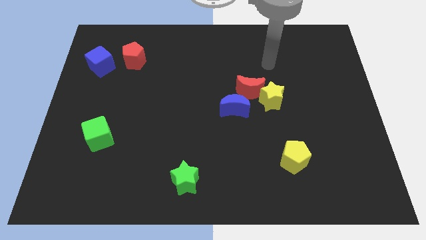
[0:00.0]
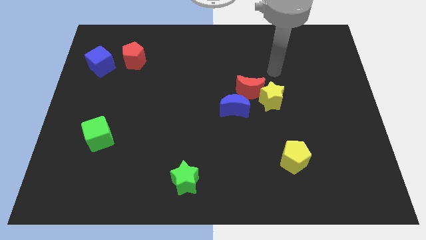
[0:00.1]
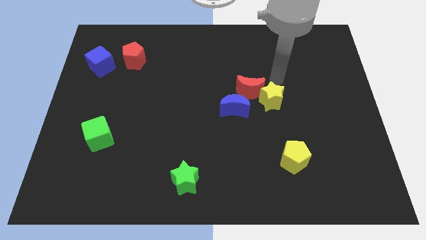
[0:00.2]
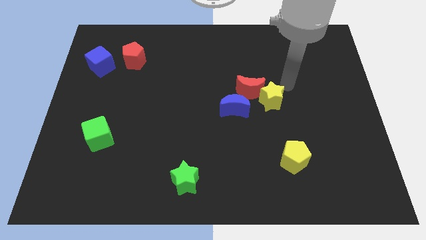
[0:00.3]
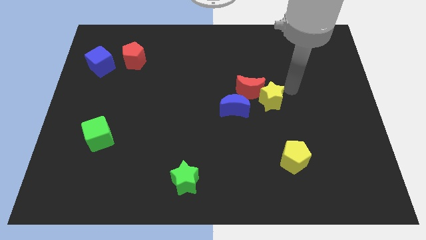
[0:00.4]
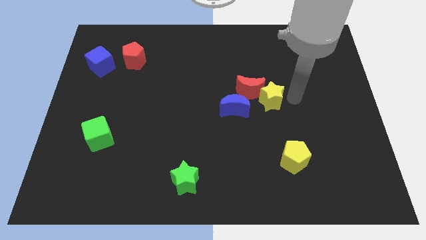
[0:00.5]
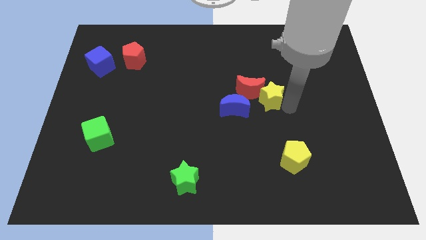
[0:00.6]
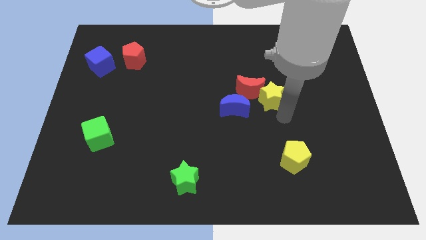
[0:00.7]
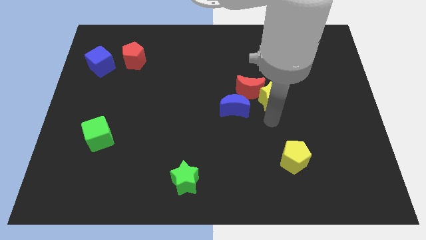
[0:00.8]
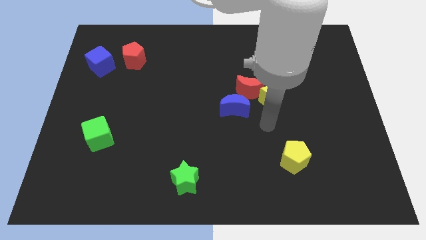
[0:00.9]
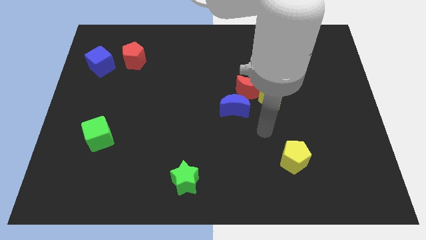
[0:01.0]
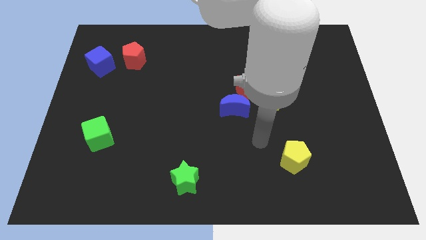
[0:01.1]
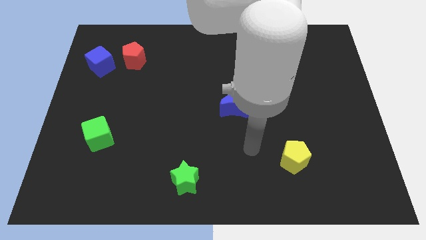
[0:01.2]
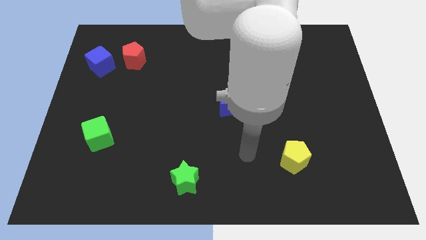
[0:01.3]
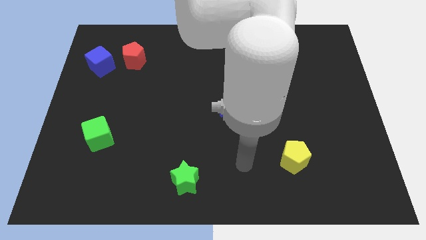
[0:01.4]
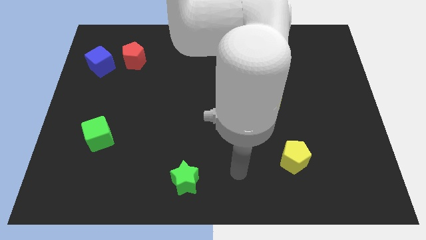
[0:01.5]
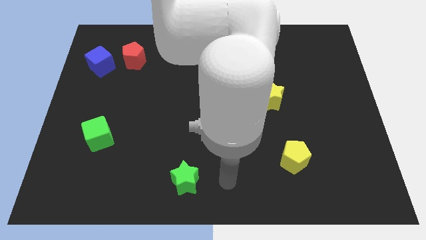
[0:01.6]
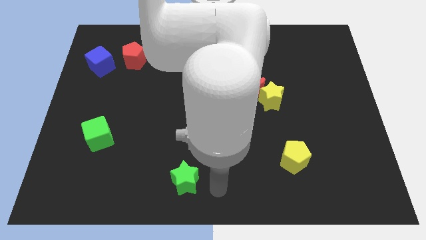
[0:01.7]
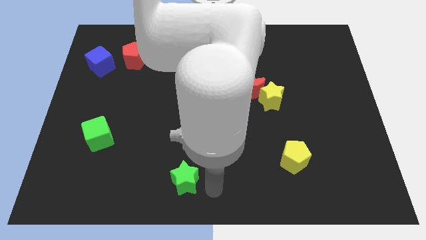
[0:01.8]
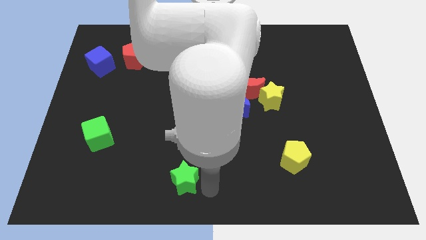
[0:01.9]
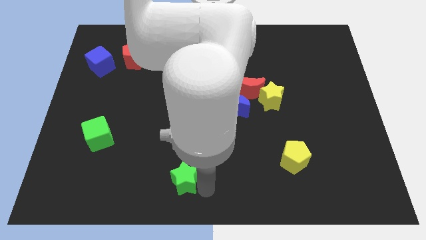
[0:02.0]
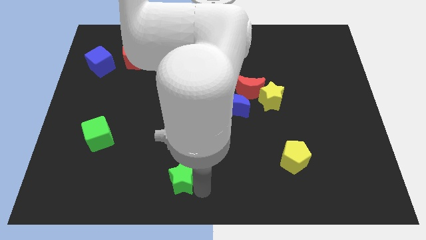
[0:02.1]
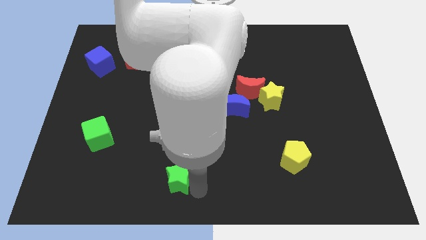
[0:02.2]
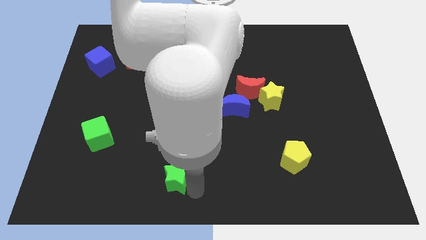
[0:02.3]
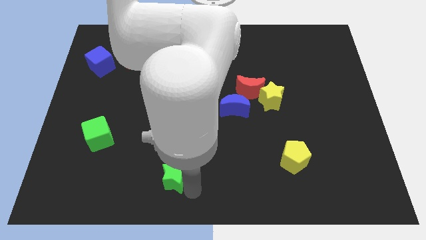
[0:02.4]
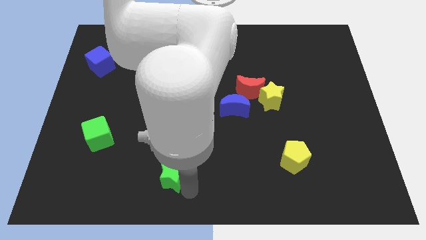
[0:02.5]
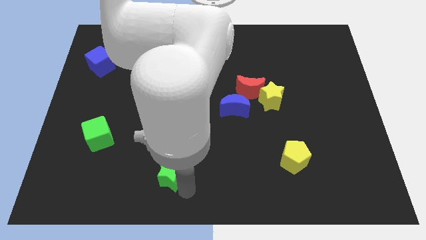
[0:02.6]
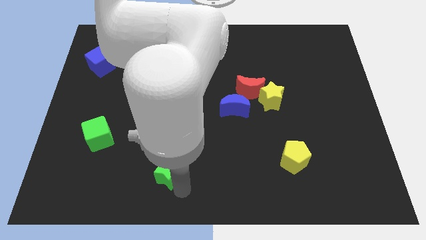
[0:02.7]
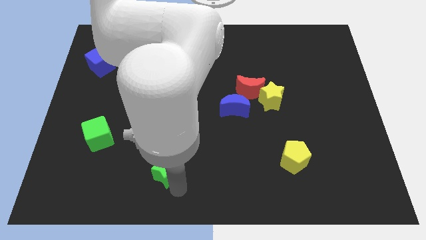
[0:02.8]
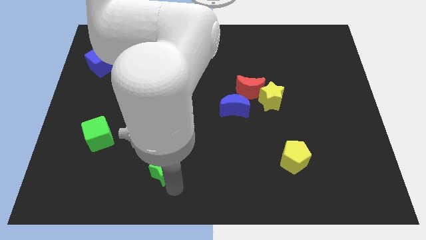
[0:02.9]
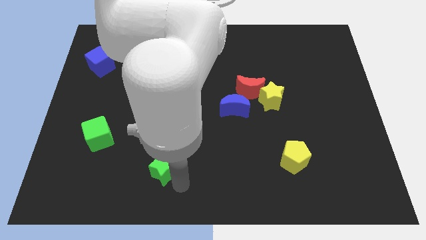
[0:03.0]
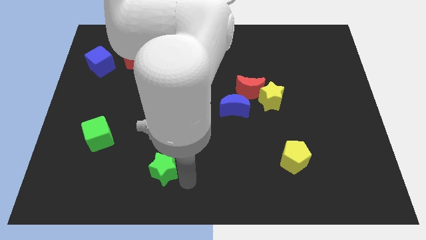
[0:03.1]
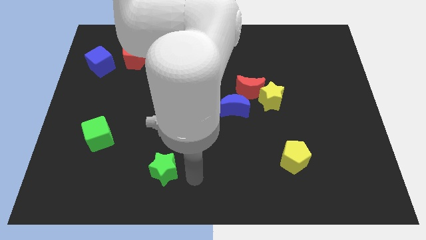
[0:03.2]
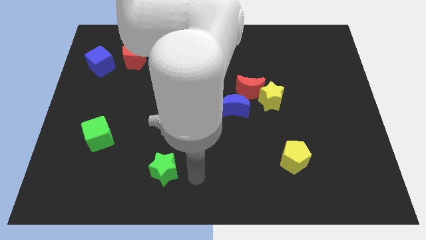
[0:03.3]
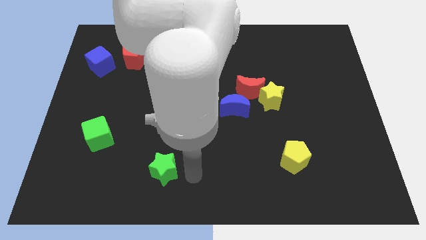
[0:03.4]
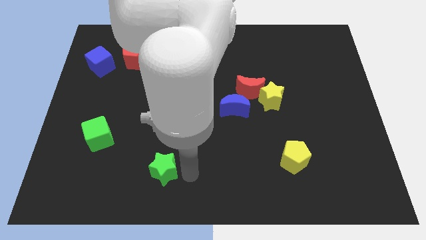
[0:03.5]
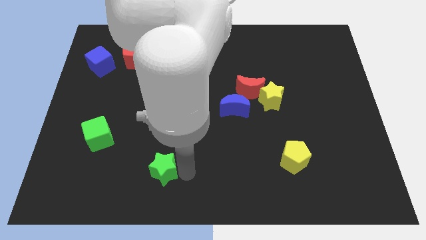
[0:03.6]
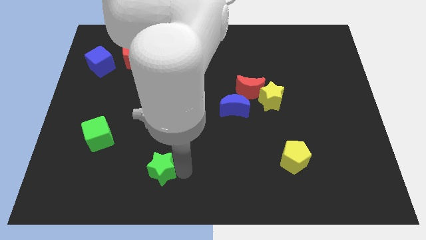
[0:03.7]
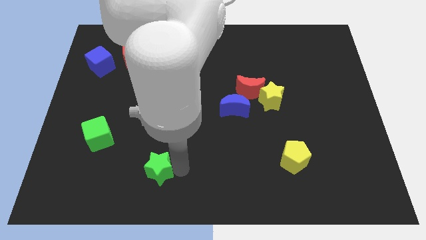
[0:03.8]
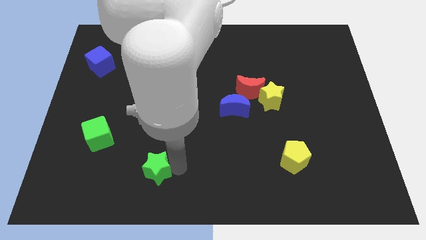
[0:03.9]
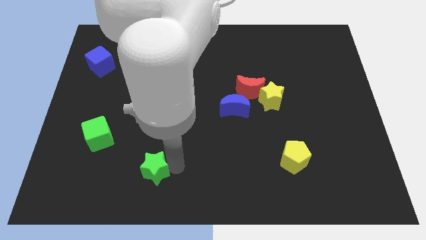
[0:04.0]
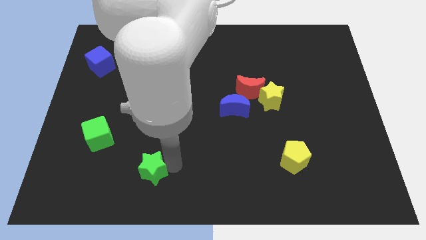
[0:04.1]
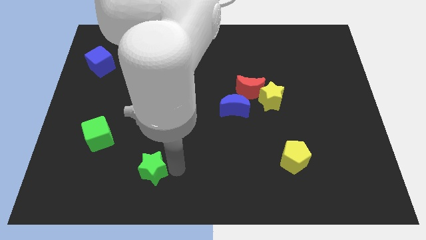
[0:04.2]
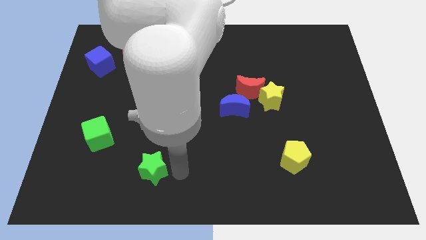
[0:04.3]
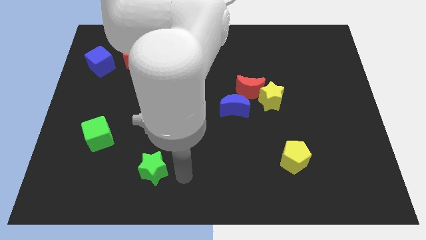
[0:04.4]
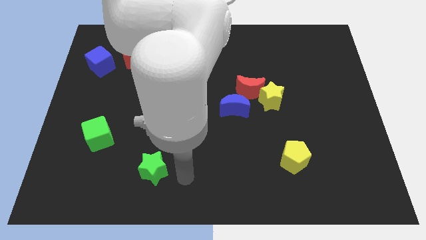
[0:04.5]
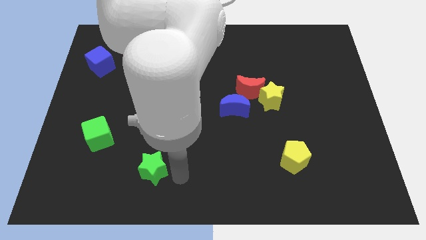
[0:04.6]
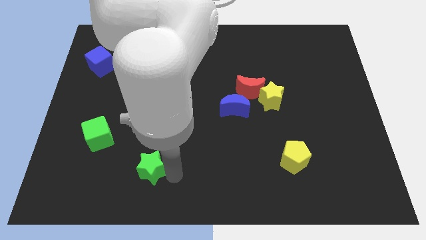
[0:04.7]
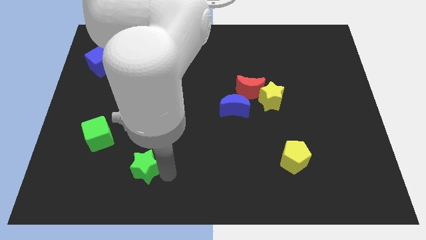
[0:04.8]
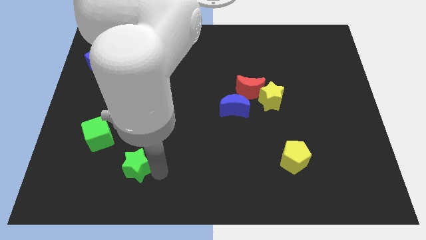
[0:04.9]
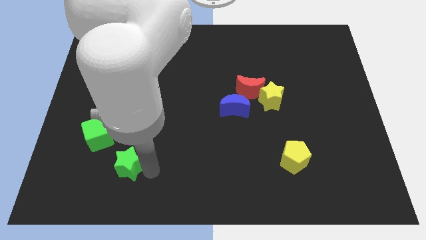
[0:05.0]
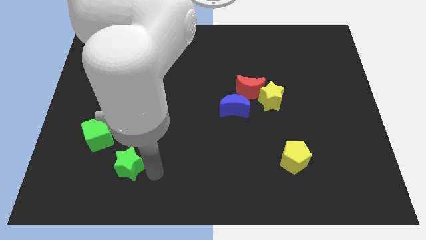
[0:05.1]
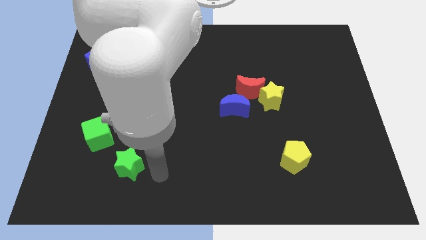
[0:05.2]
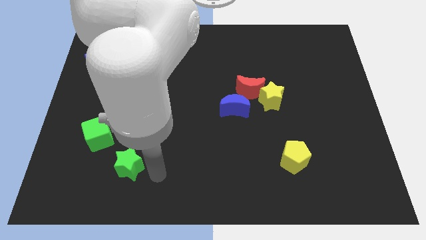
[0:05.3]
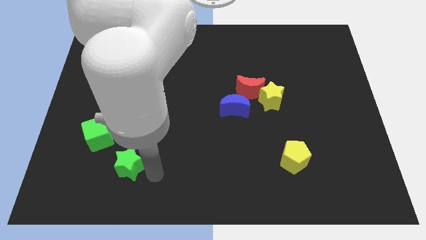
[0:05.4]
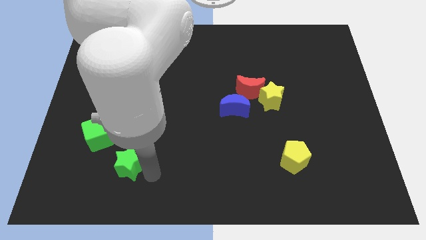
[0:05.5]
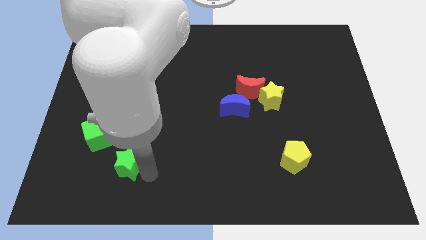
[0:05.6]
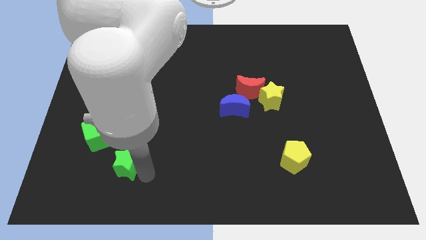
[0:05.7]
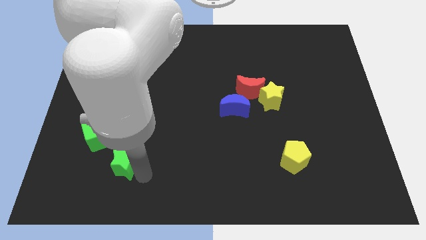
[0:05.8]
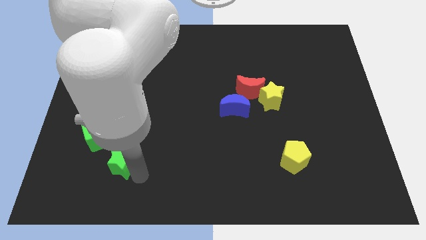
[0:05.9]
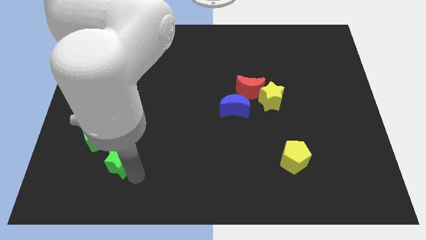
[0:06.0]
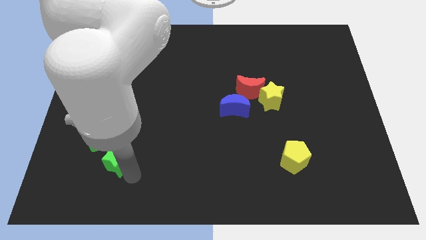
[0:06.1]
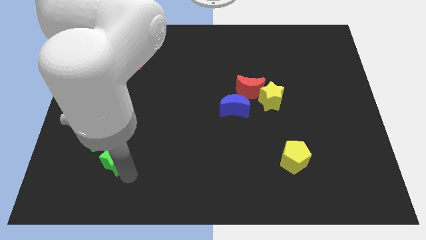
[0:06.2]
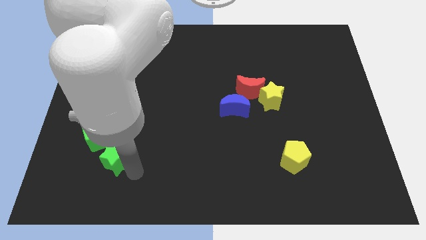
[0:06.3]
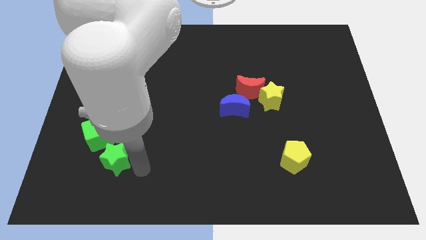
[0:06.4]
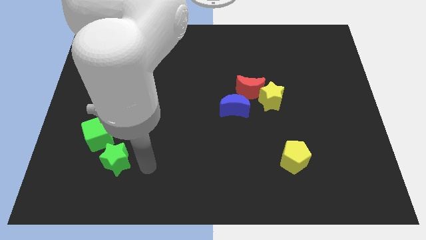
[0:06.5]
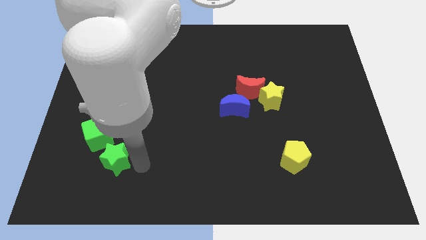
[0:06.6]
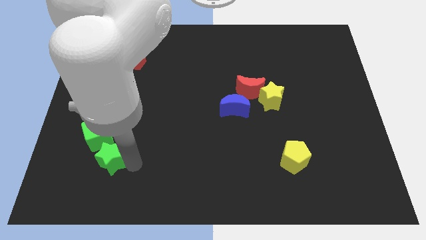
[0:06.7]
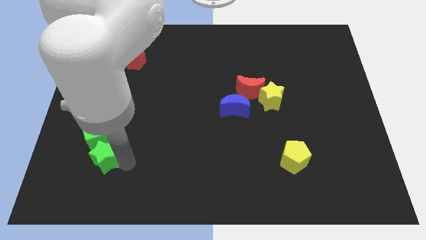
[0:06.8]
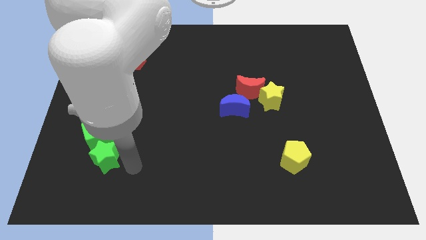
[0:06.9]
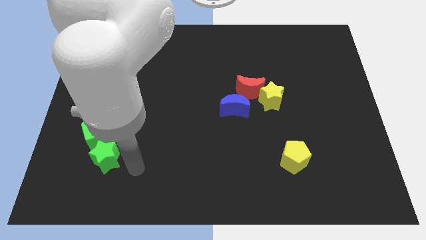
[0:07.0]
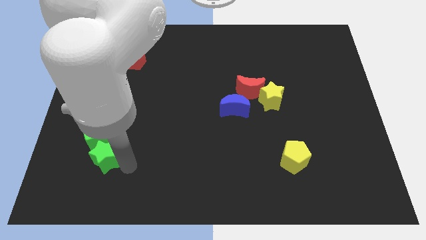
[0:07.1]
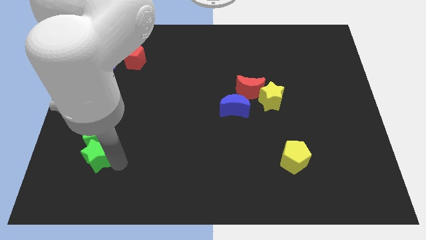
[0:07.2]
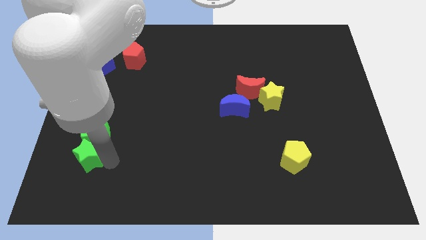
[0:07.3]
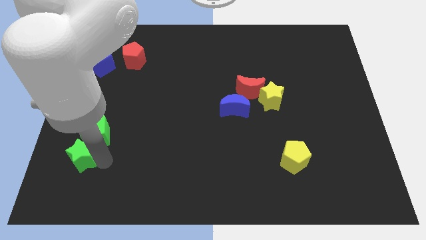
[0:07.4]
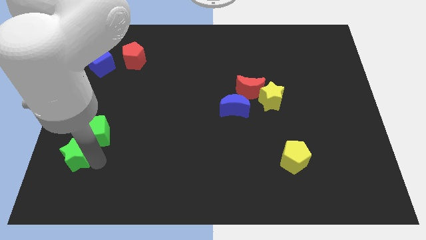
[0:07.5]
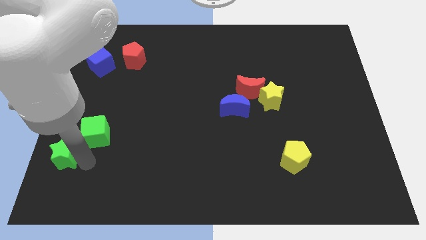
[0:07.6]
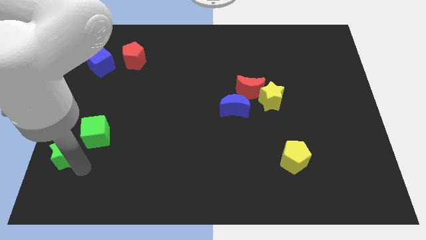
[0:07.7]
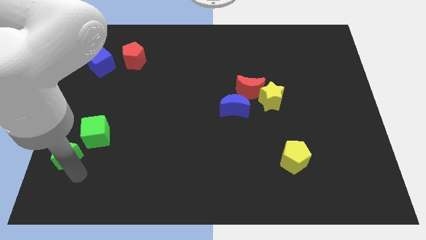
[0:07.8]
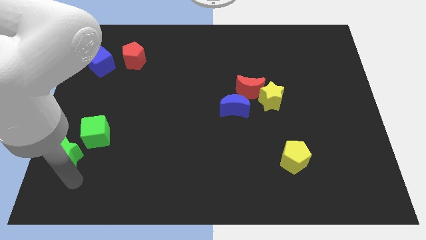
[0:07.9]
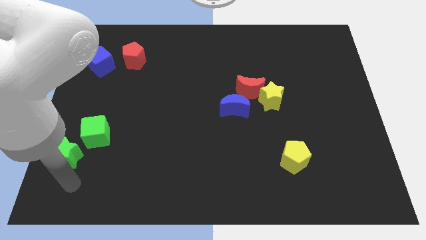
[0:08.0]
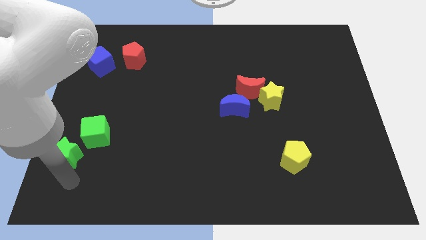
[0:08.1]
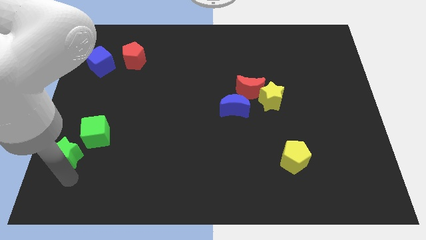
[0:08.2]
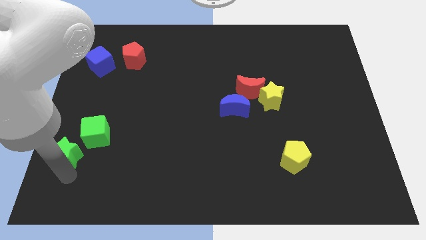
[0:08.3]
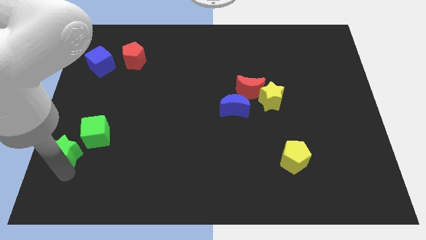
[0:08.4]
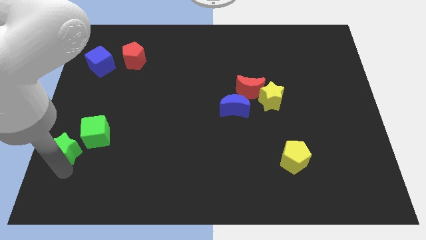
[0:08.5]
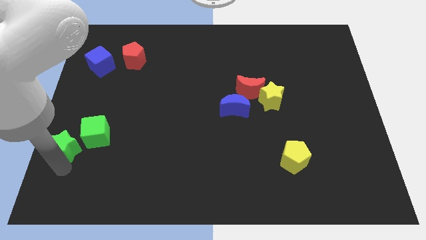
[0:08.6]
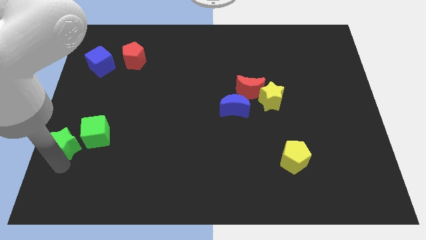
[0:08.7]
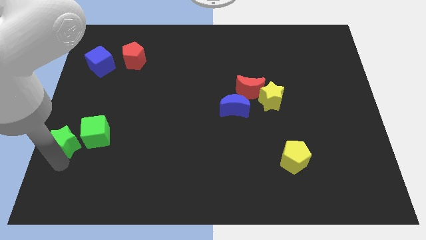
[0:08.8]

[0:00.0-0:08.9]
move the green star to the center left
